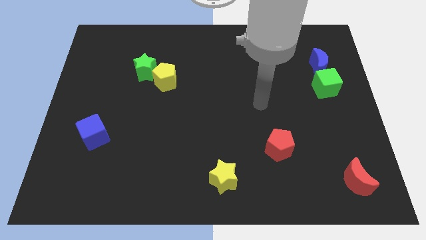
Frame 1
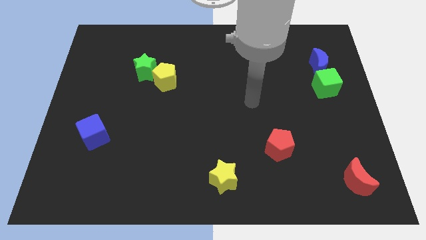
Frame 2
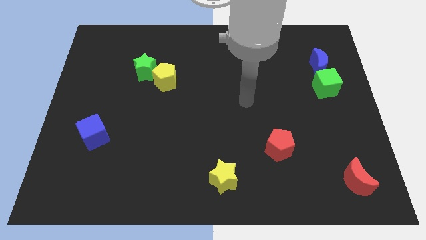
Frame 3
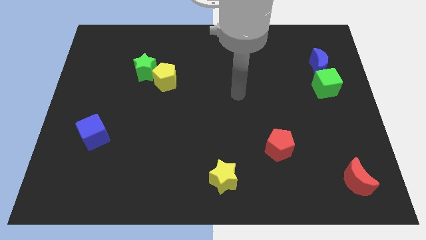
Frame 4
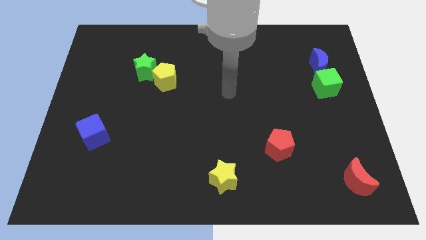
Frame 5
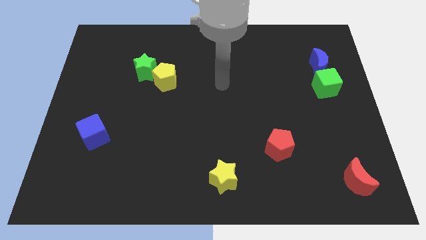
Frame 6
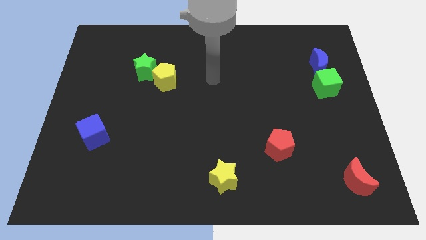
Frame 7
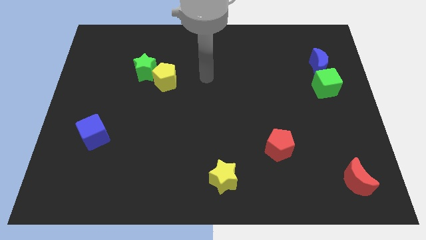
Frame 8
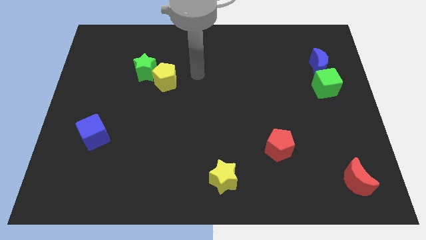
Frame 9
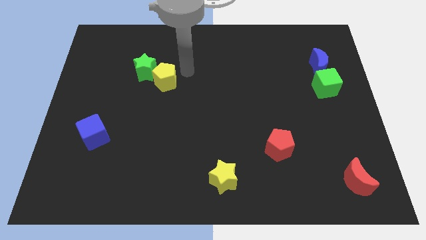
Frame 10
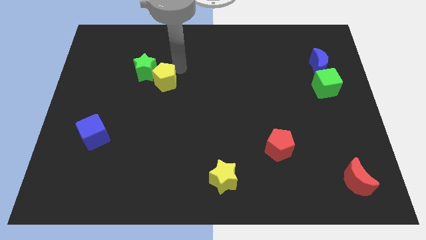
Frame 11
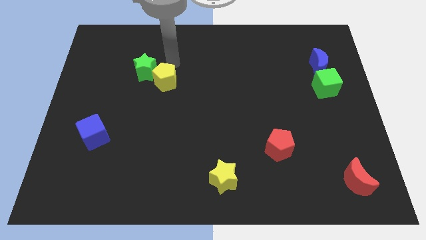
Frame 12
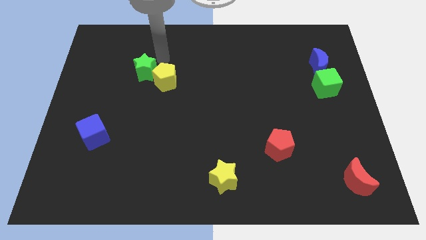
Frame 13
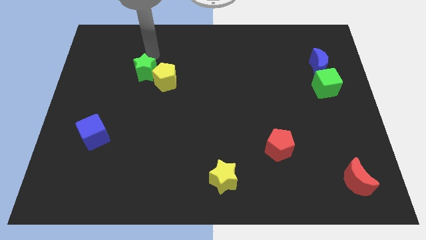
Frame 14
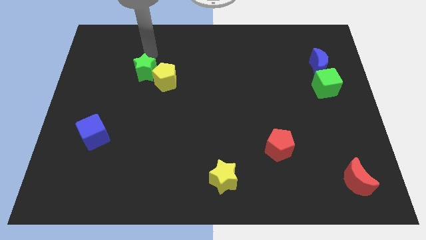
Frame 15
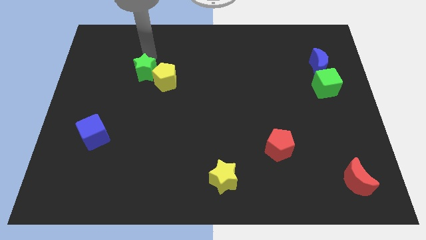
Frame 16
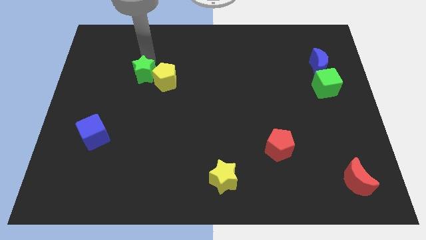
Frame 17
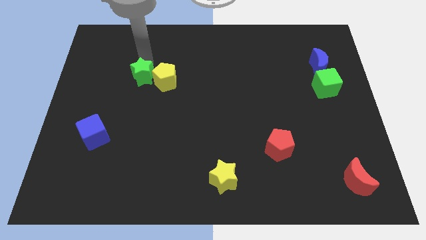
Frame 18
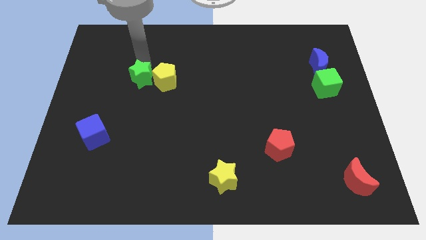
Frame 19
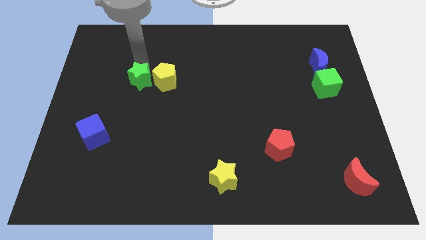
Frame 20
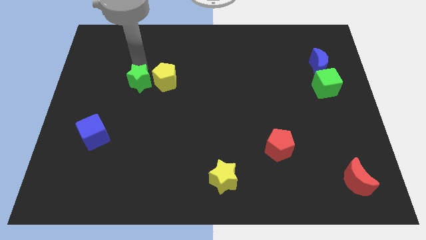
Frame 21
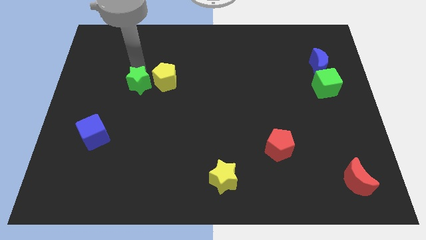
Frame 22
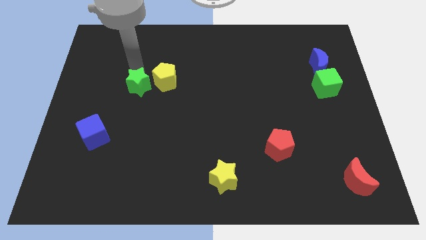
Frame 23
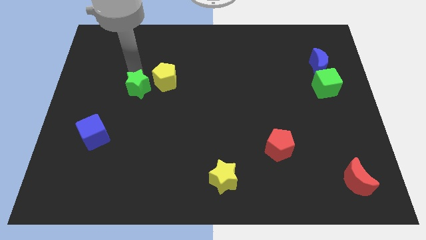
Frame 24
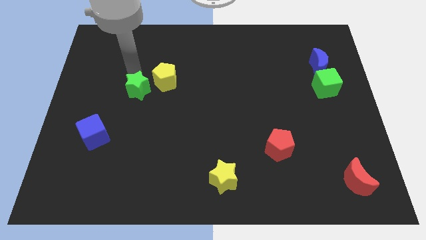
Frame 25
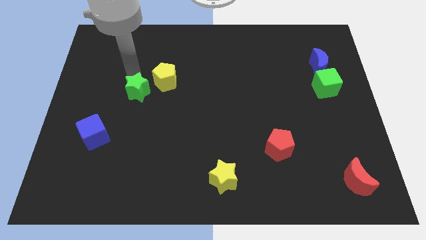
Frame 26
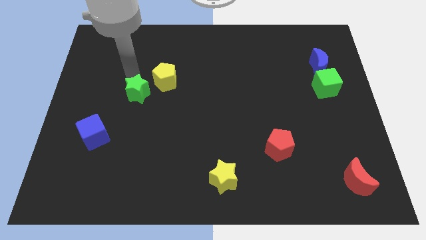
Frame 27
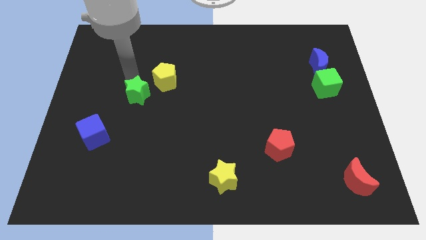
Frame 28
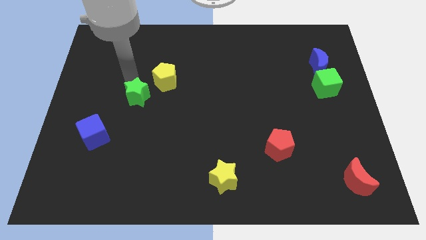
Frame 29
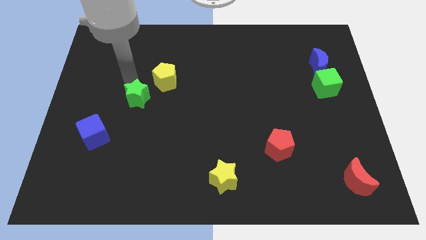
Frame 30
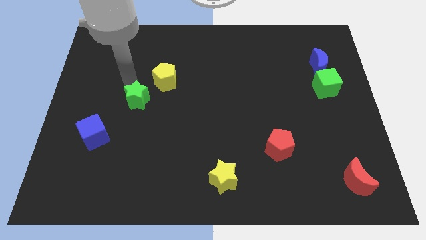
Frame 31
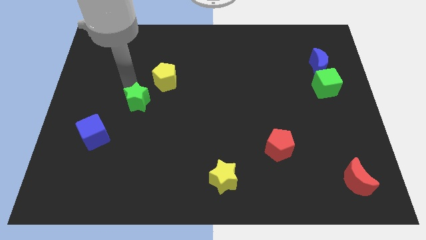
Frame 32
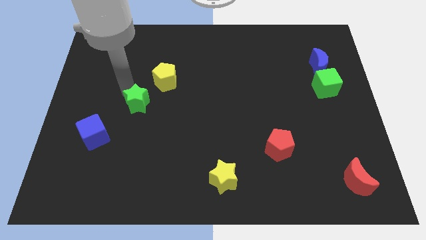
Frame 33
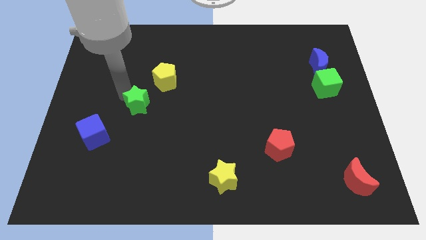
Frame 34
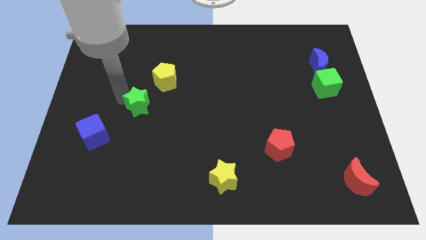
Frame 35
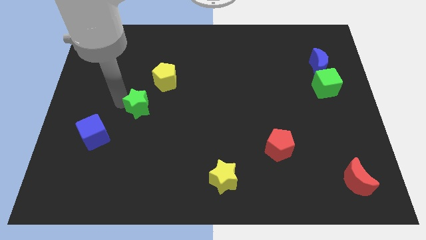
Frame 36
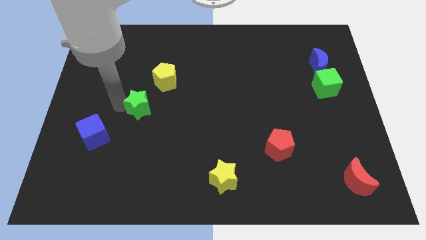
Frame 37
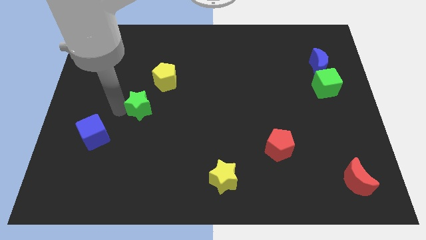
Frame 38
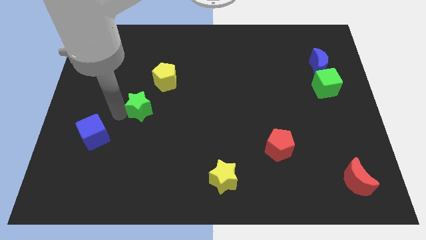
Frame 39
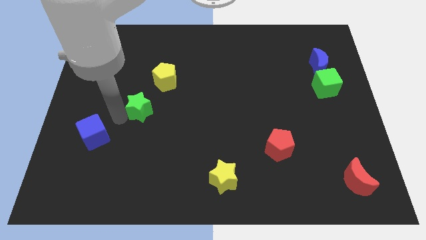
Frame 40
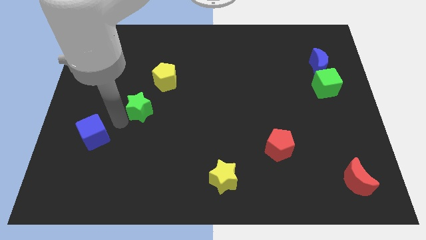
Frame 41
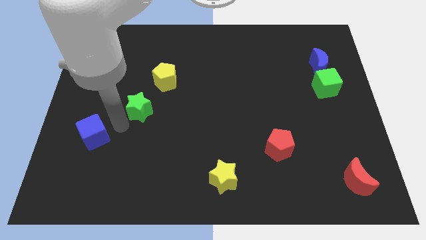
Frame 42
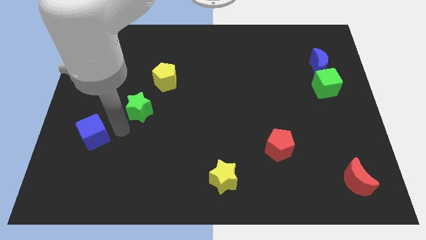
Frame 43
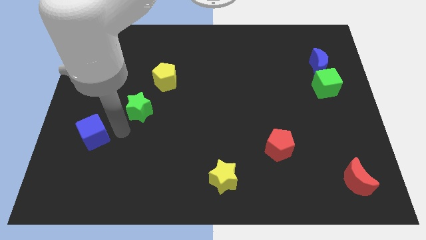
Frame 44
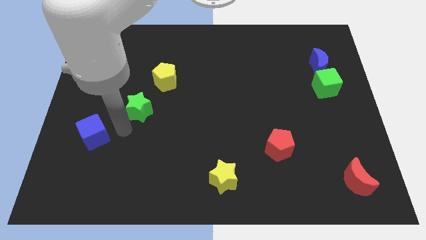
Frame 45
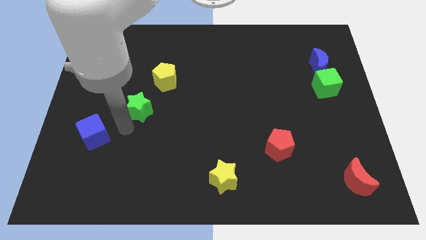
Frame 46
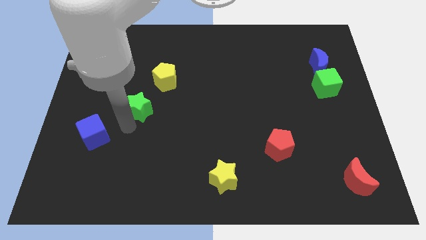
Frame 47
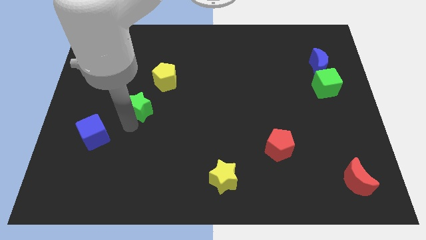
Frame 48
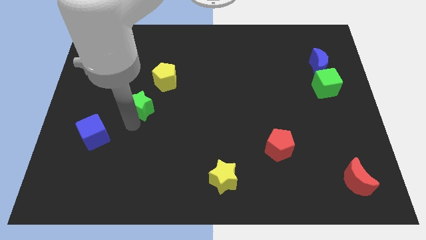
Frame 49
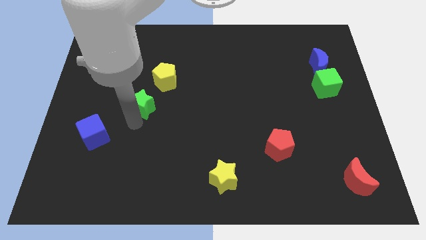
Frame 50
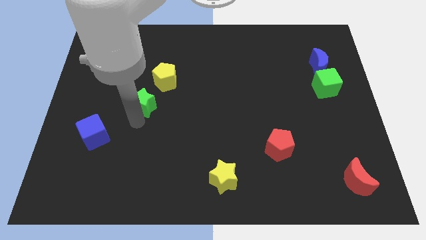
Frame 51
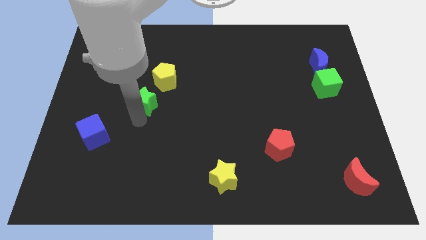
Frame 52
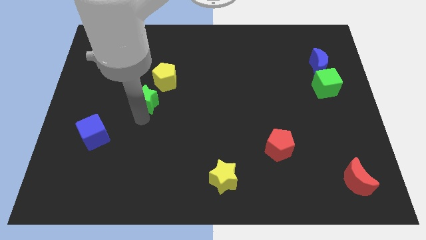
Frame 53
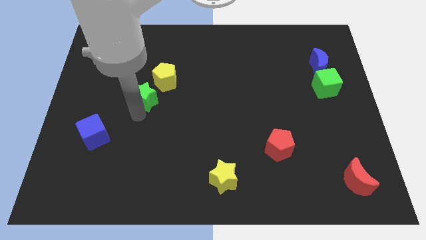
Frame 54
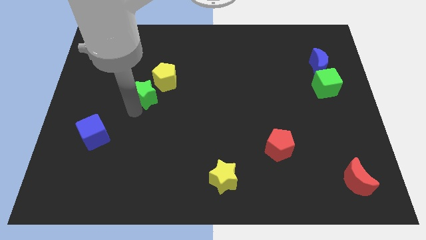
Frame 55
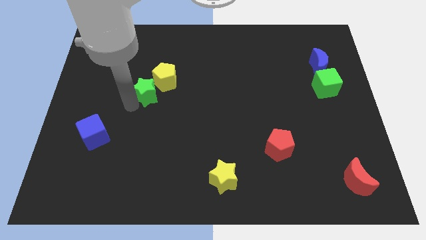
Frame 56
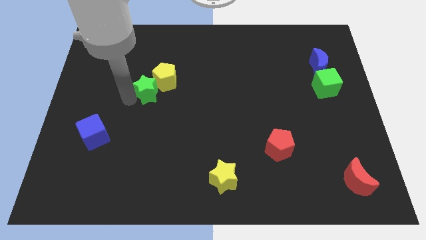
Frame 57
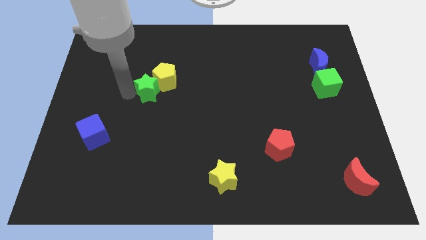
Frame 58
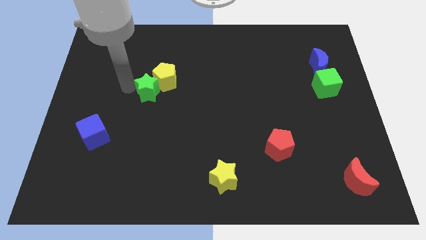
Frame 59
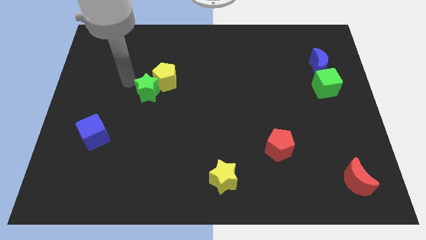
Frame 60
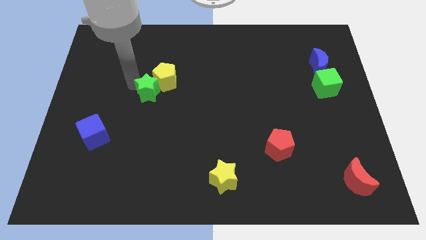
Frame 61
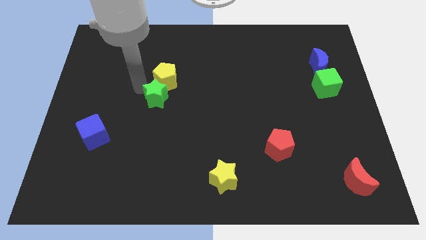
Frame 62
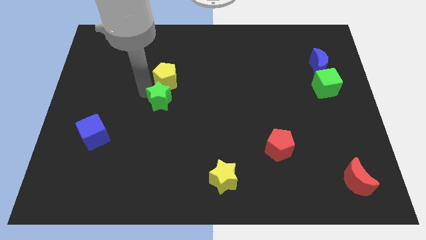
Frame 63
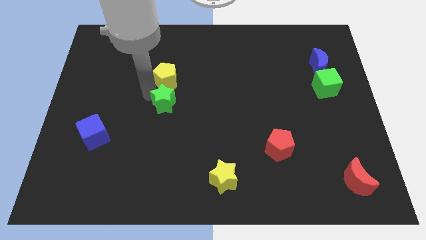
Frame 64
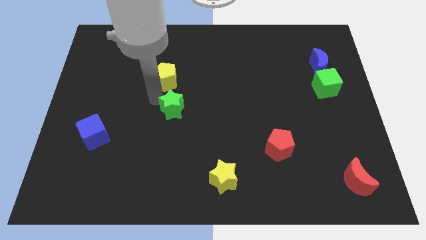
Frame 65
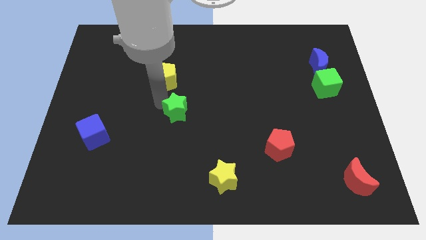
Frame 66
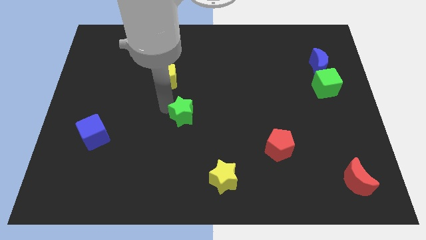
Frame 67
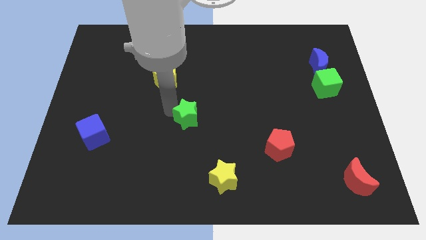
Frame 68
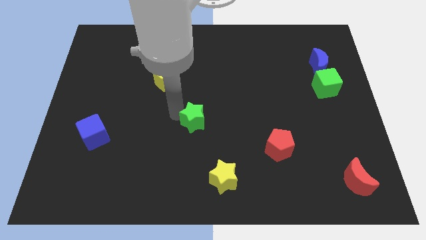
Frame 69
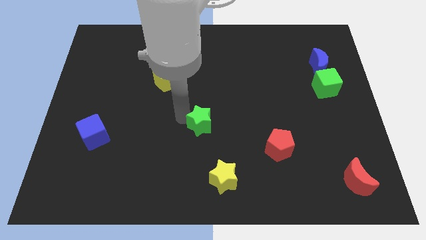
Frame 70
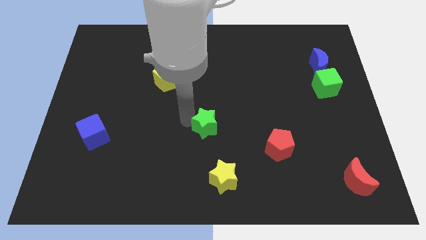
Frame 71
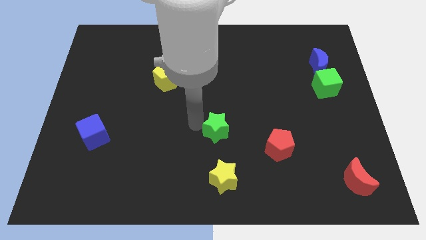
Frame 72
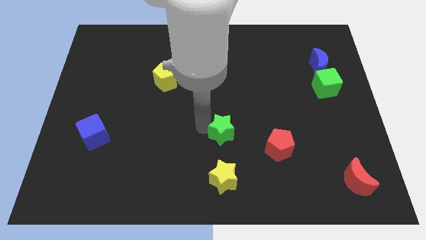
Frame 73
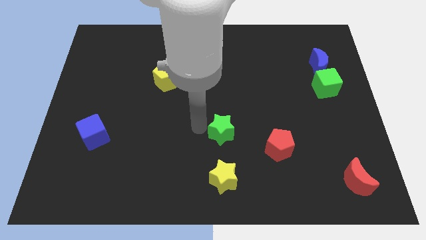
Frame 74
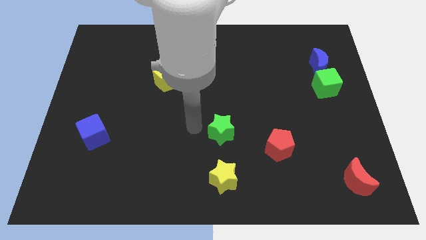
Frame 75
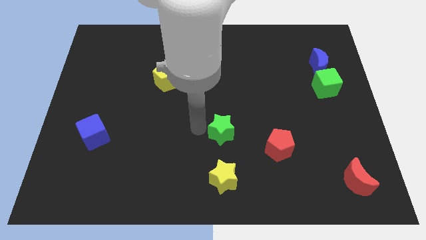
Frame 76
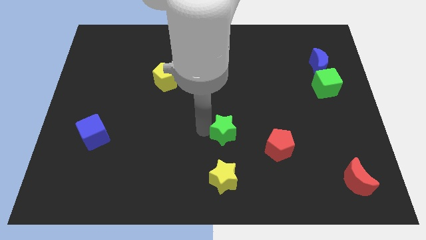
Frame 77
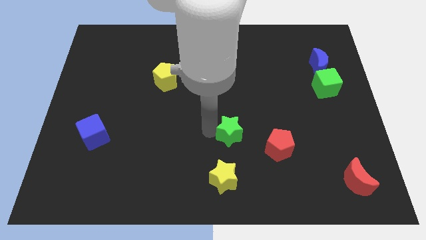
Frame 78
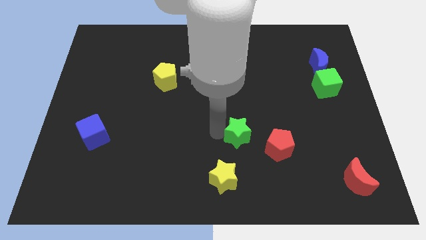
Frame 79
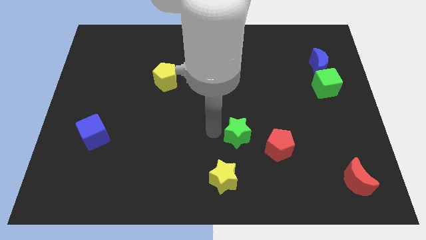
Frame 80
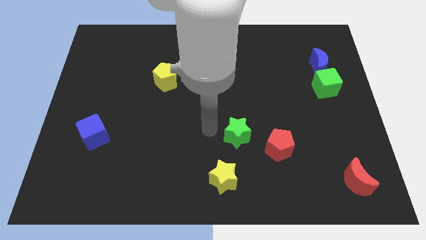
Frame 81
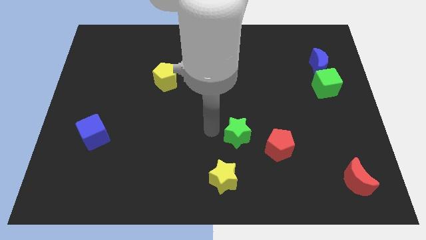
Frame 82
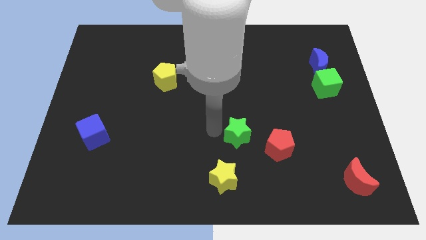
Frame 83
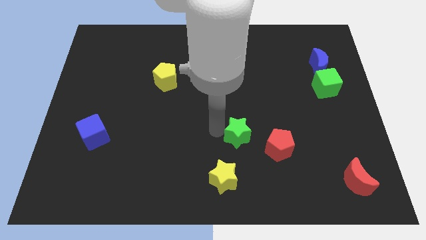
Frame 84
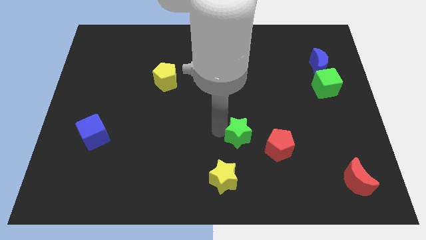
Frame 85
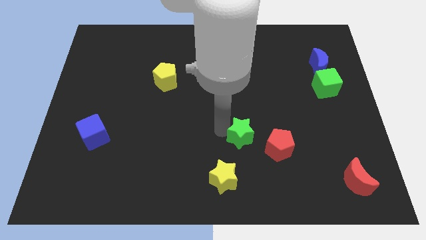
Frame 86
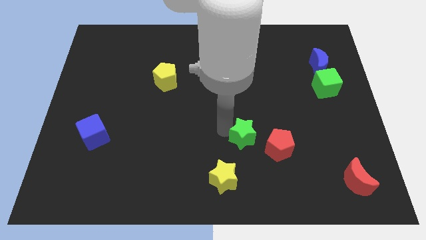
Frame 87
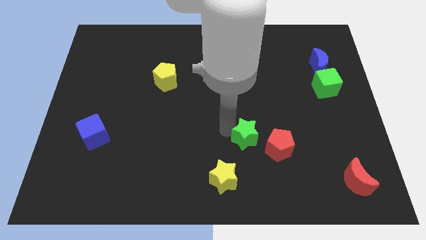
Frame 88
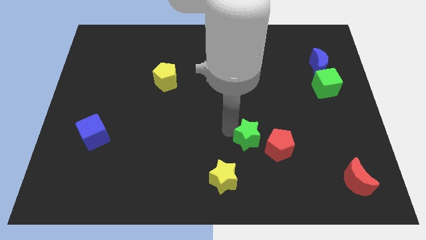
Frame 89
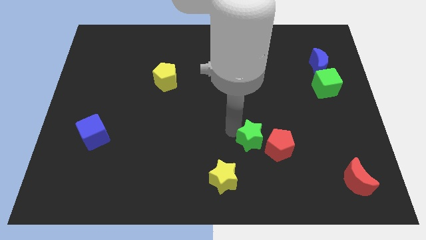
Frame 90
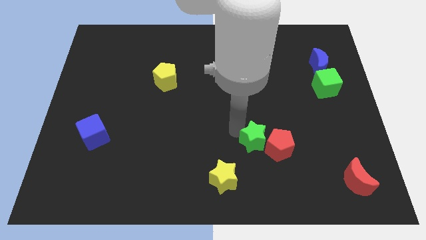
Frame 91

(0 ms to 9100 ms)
put the green star next to the red pentagon
